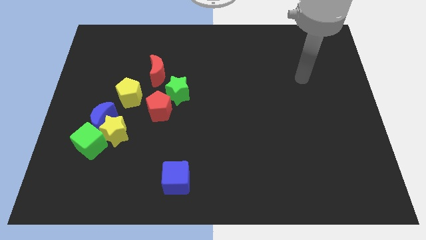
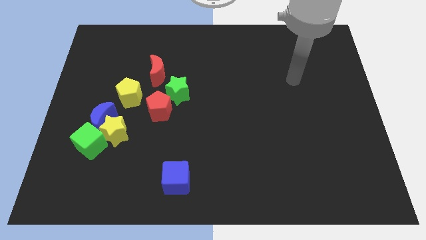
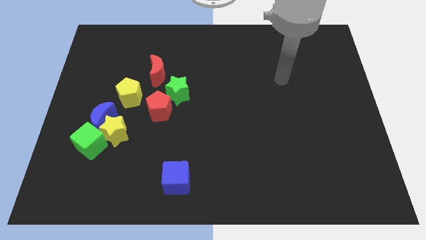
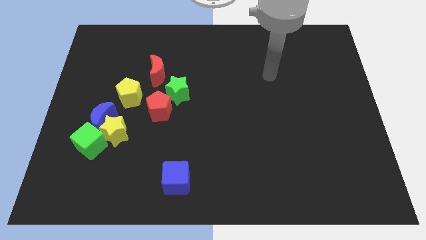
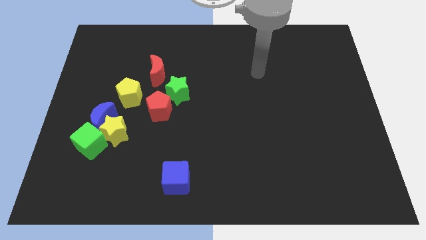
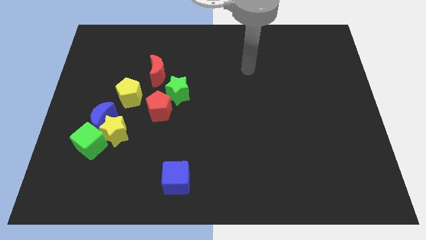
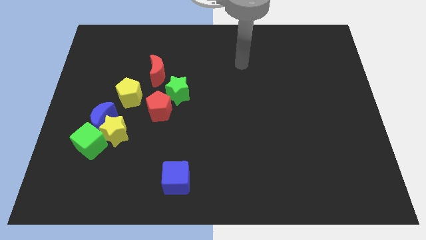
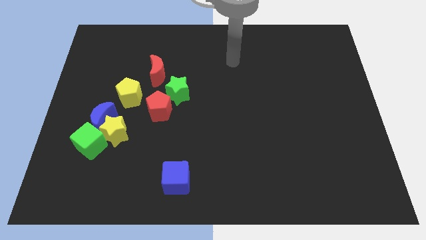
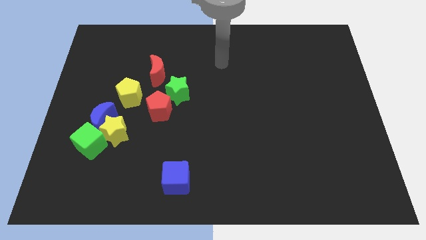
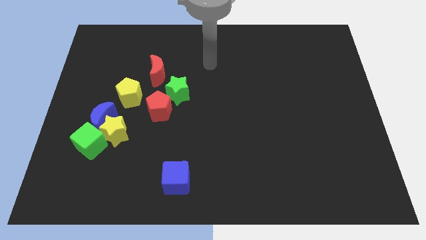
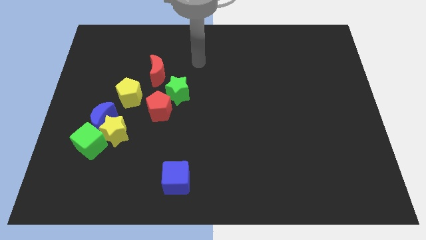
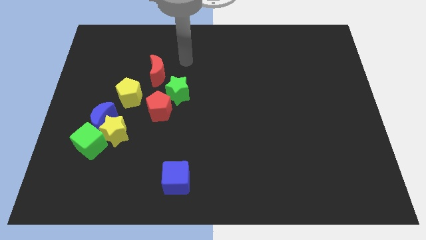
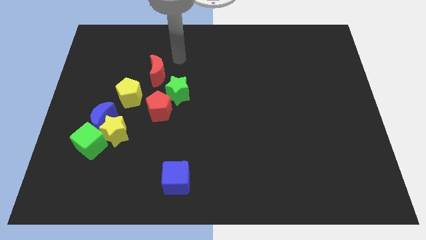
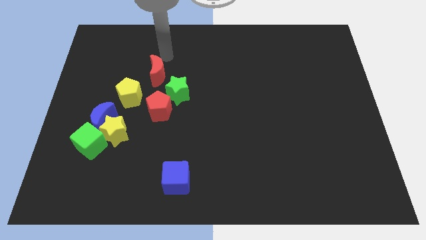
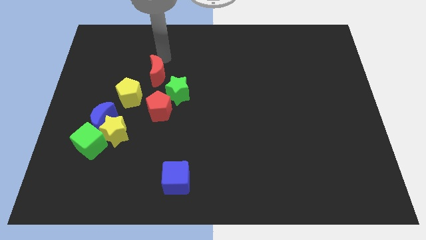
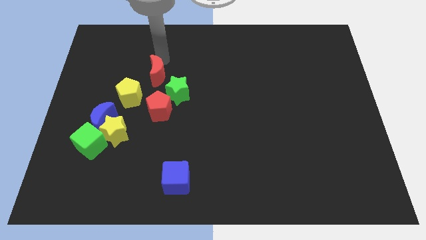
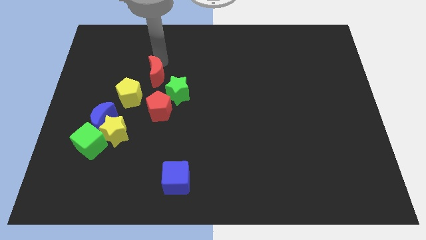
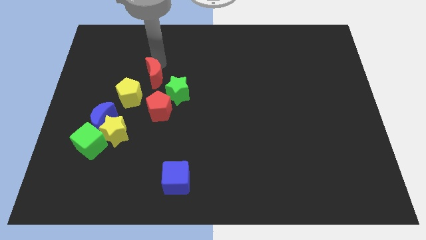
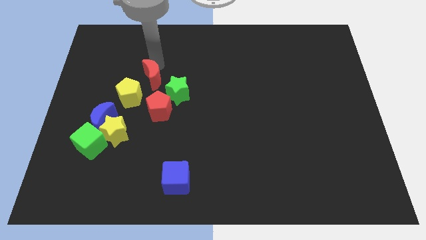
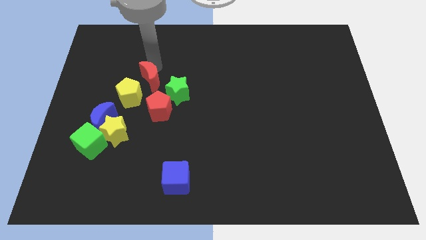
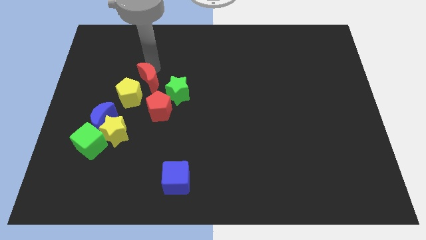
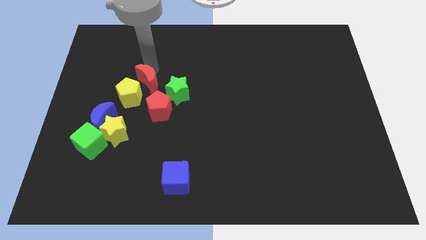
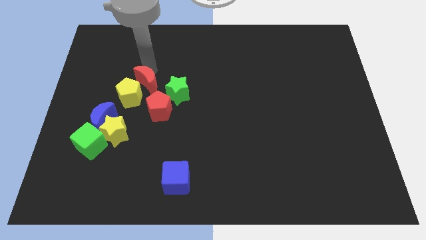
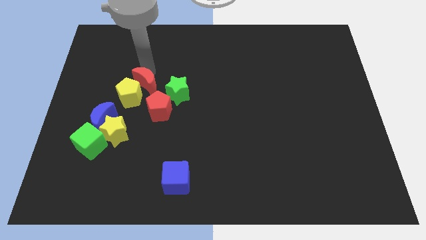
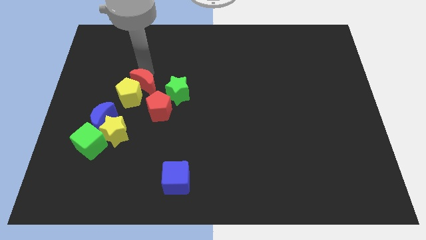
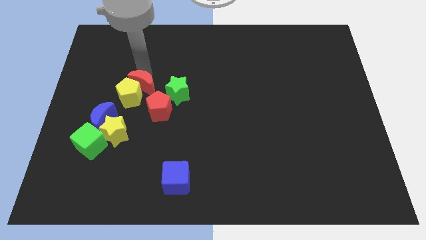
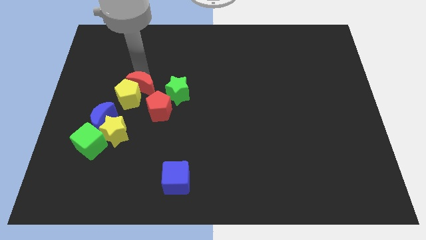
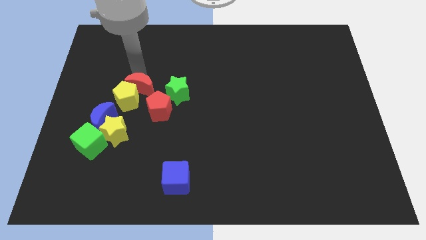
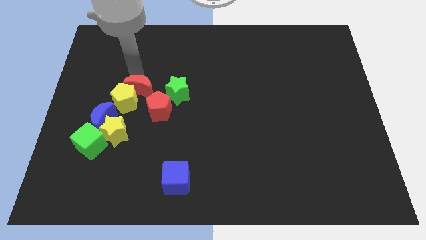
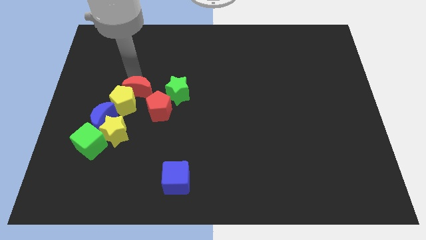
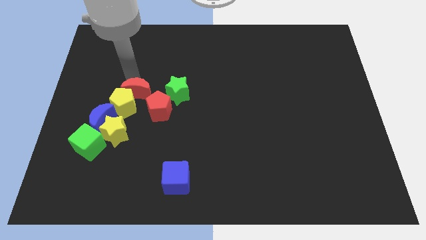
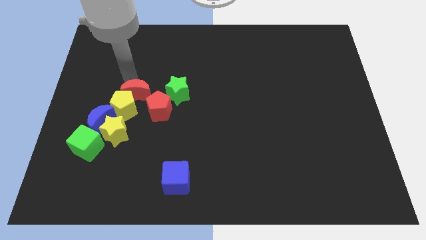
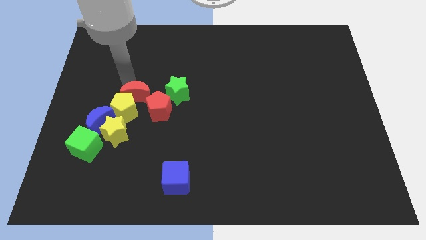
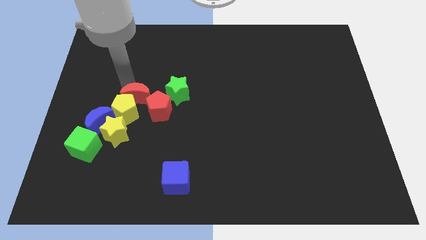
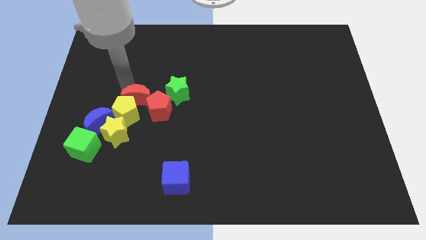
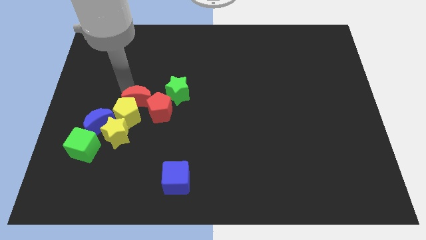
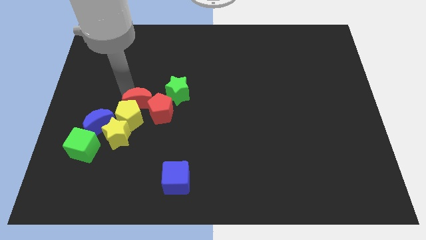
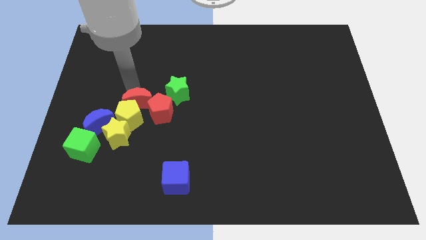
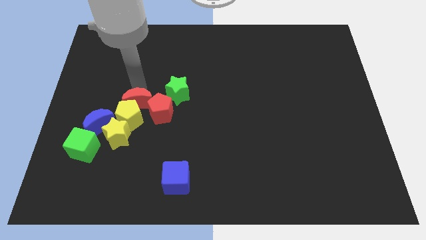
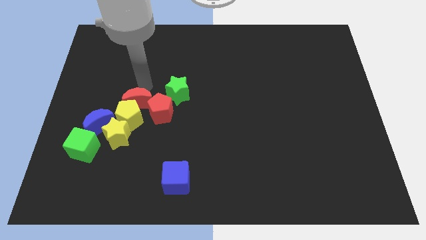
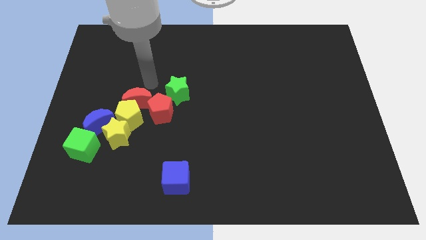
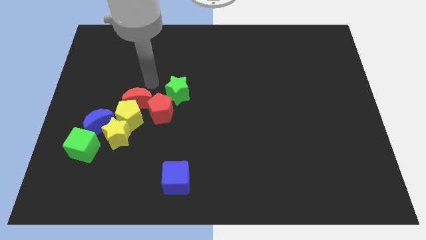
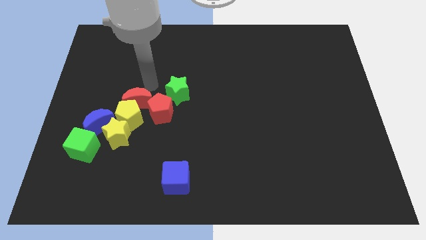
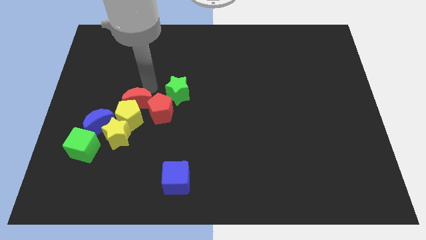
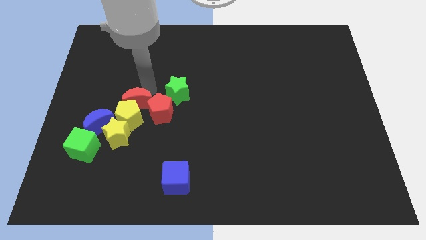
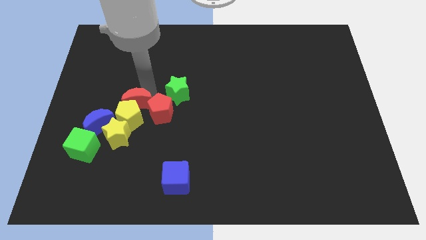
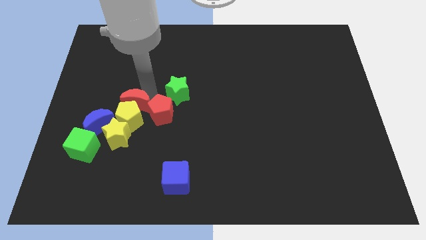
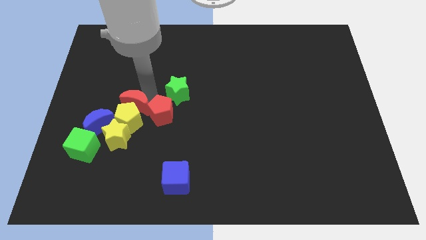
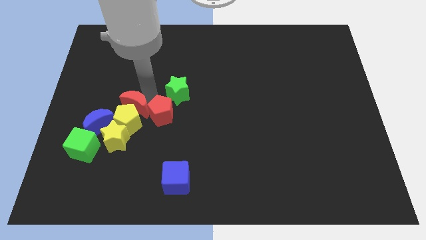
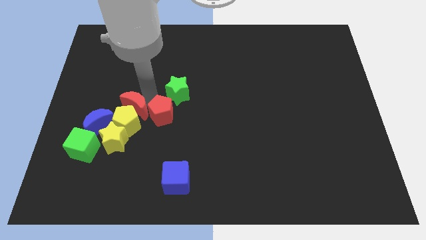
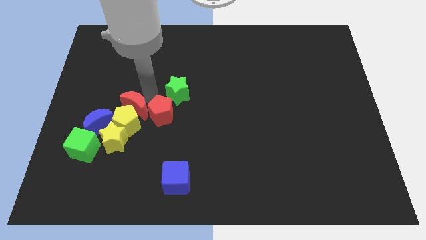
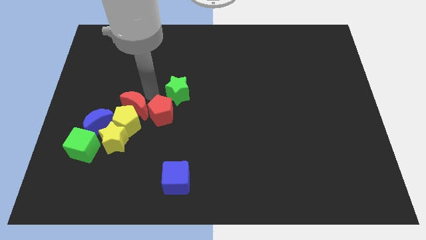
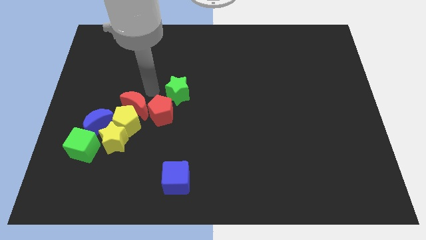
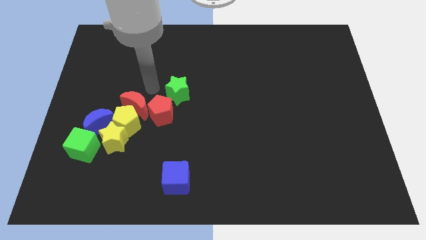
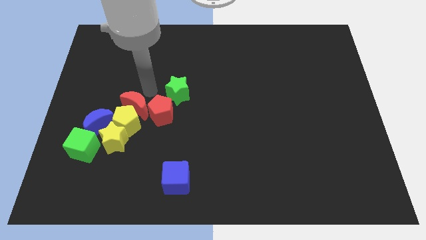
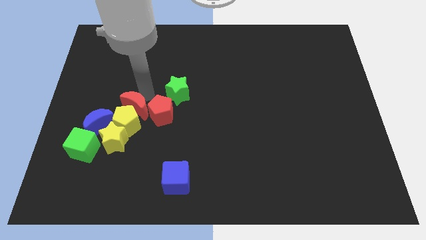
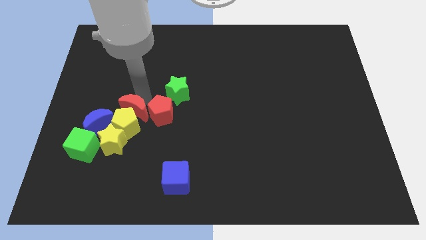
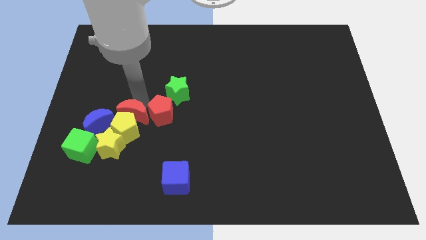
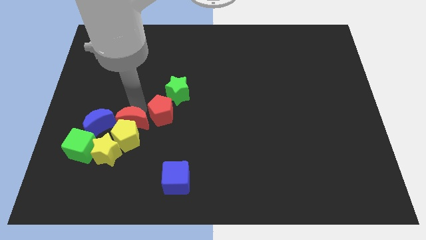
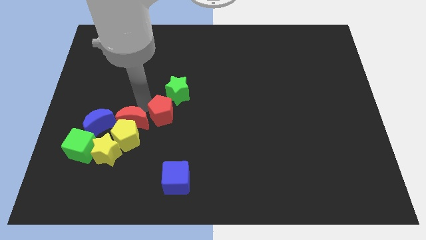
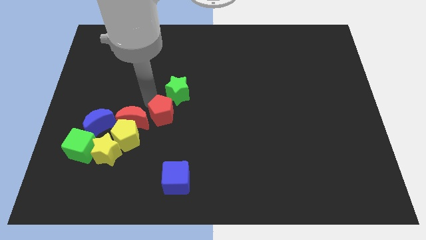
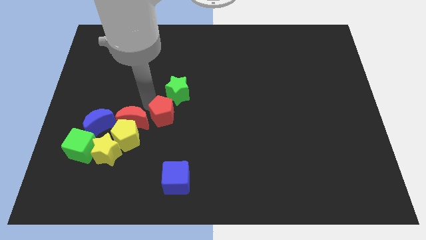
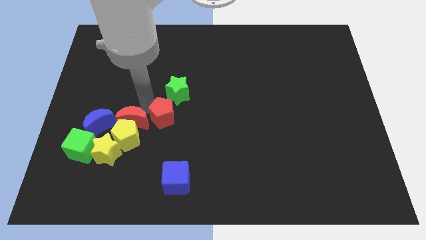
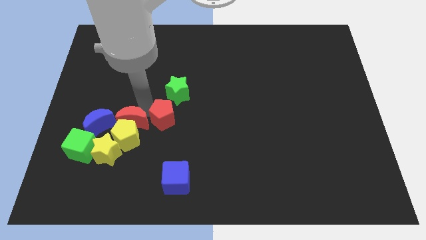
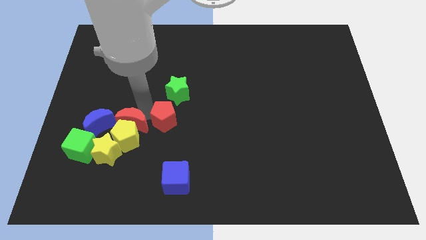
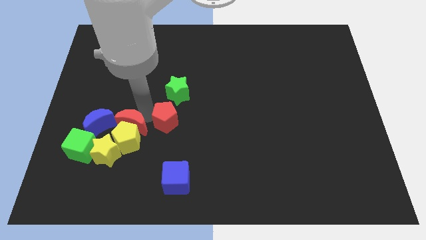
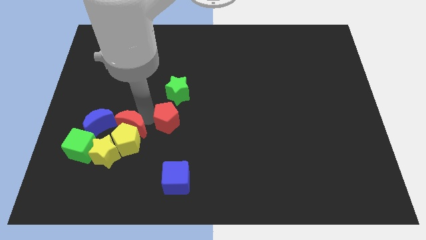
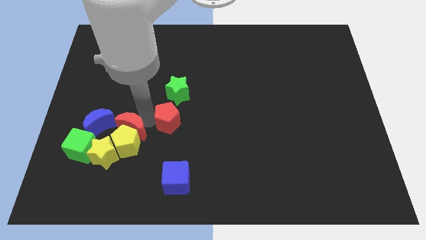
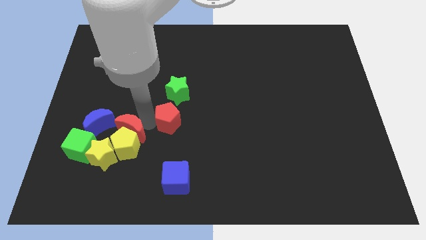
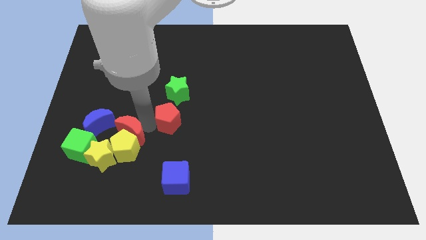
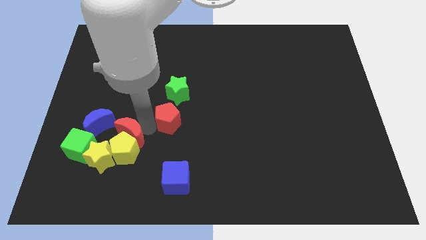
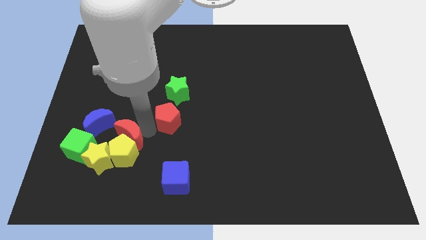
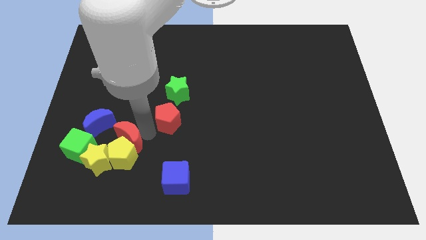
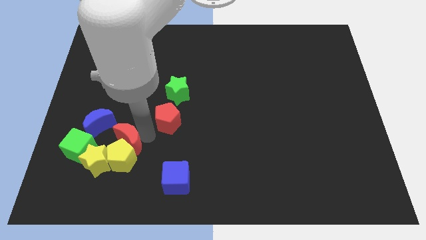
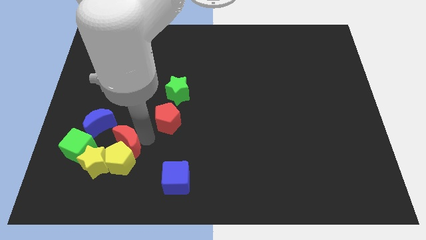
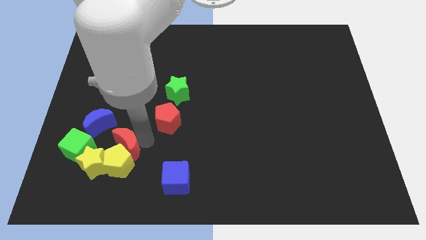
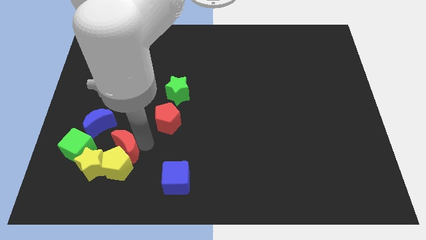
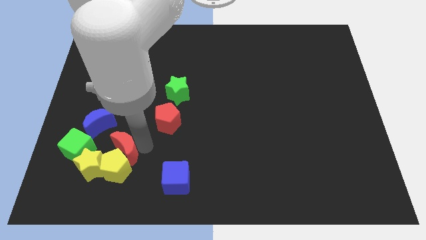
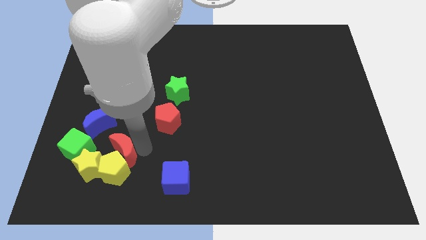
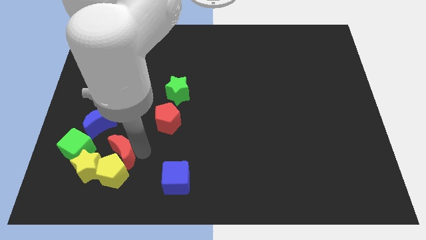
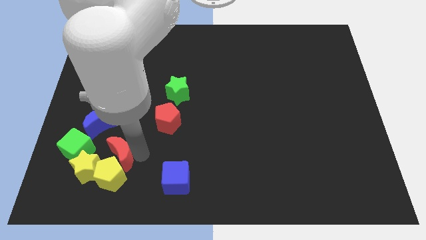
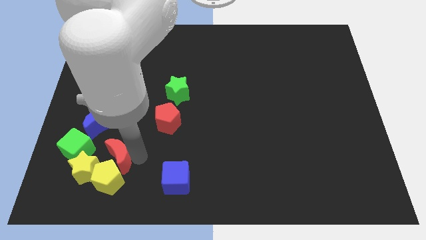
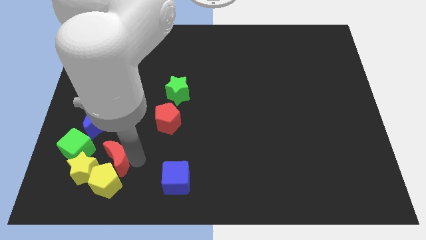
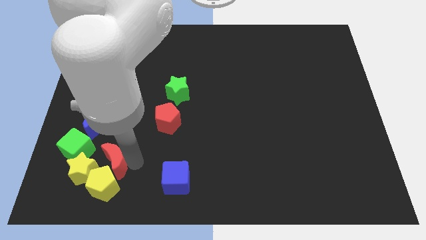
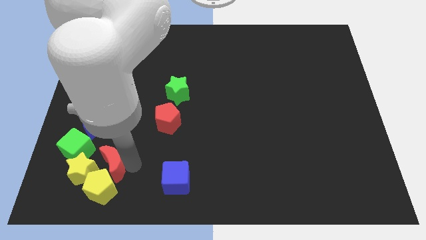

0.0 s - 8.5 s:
push the red moon next to the yellow star
